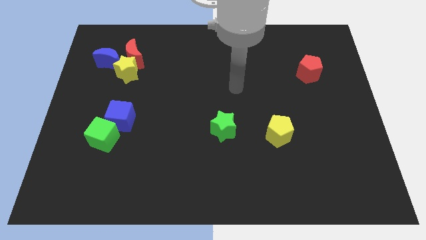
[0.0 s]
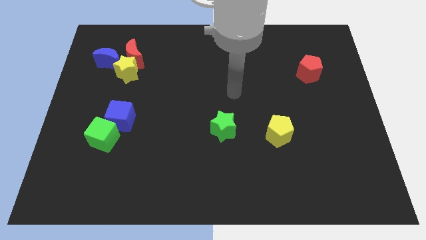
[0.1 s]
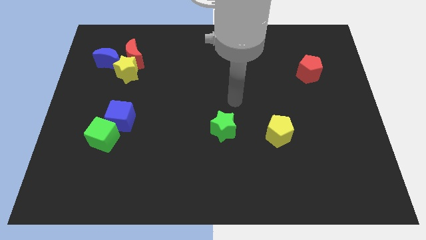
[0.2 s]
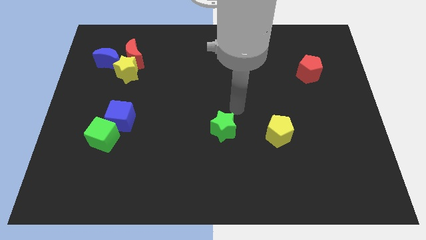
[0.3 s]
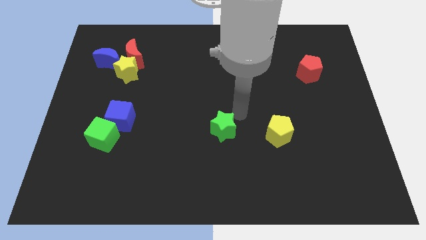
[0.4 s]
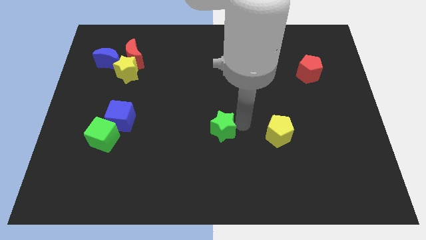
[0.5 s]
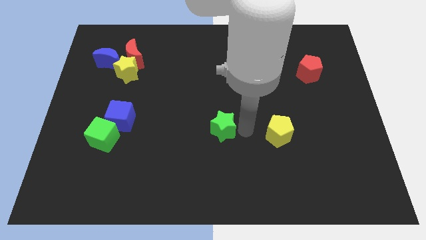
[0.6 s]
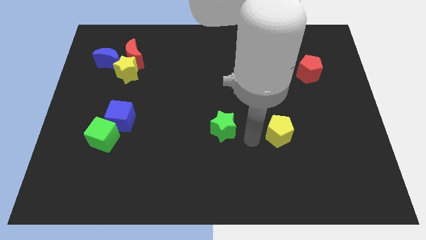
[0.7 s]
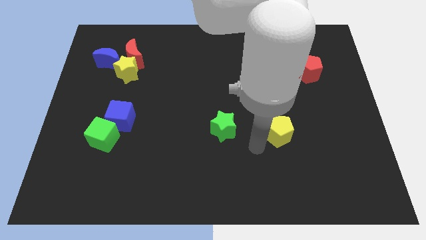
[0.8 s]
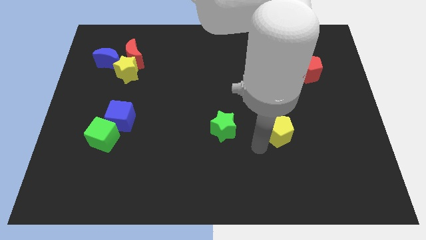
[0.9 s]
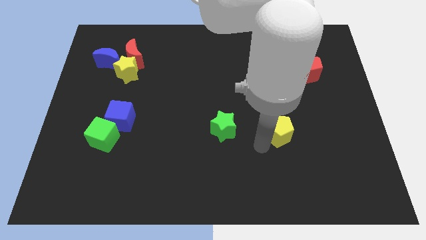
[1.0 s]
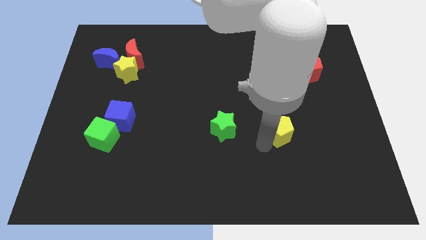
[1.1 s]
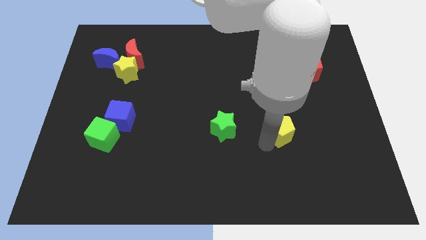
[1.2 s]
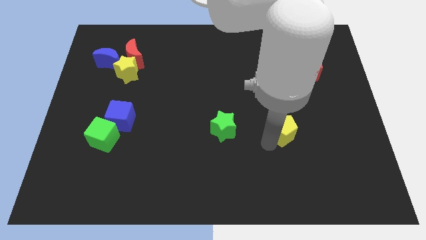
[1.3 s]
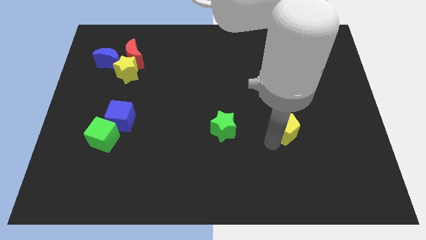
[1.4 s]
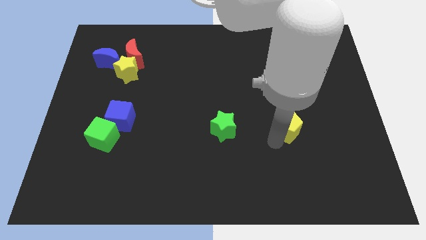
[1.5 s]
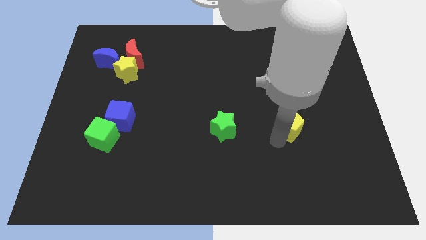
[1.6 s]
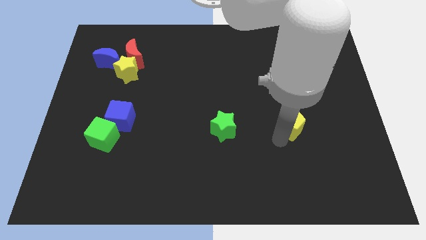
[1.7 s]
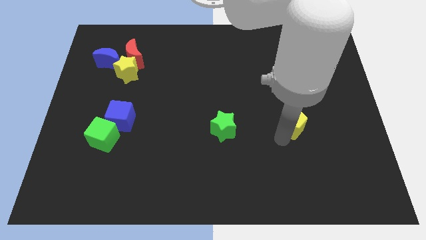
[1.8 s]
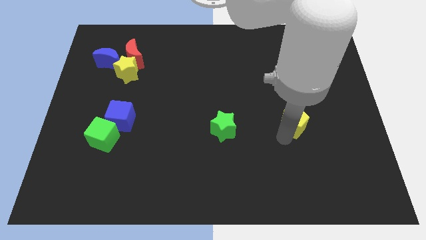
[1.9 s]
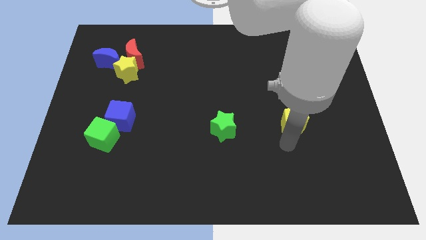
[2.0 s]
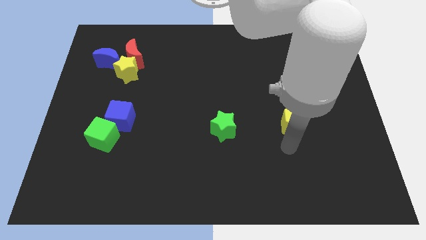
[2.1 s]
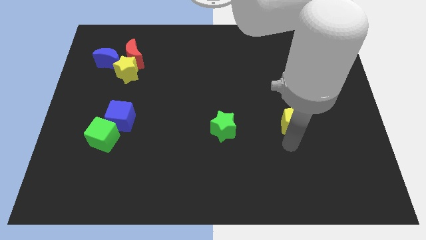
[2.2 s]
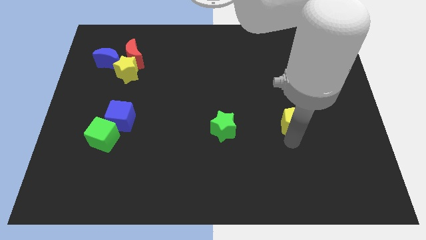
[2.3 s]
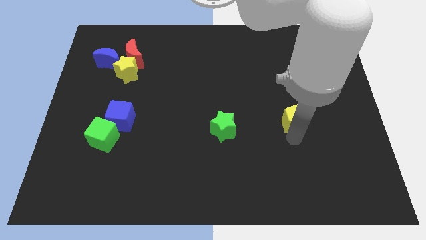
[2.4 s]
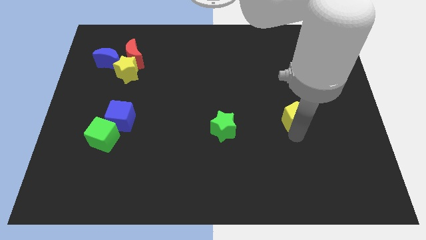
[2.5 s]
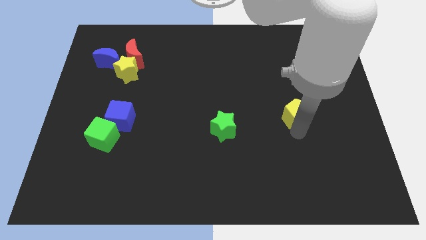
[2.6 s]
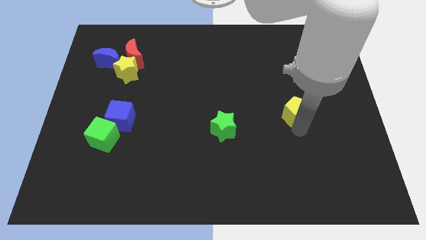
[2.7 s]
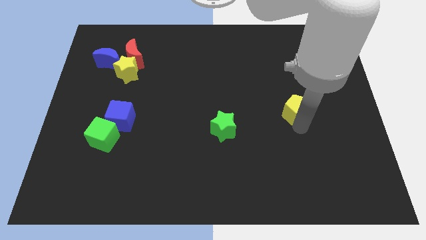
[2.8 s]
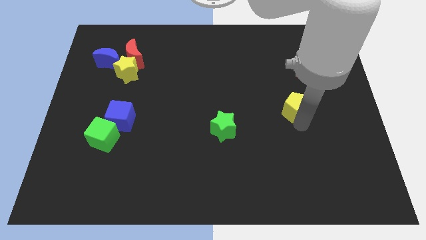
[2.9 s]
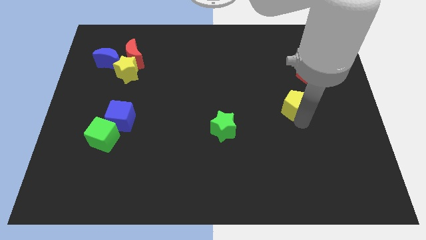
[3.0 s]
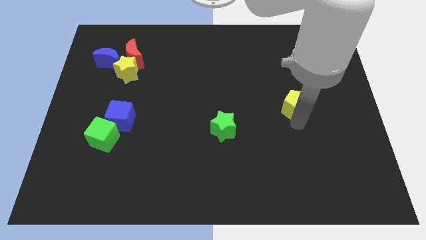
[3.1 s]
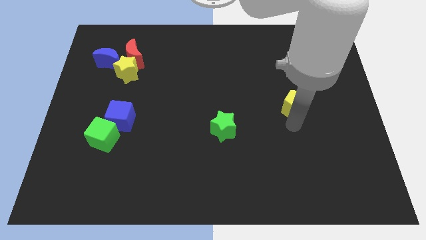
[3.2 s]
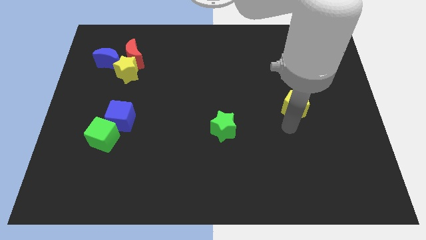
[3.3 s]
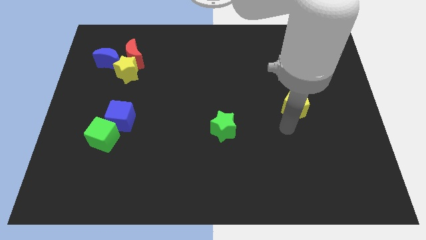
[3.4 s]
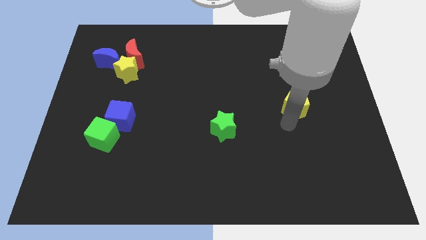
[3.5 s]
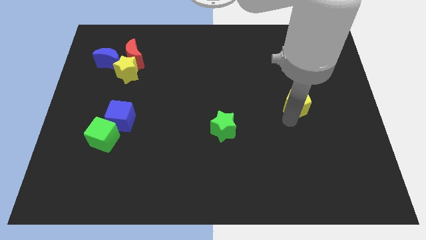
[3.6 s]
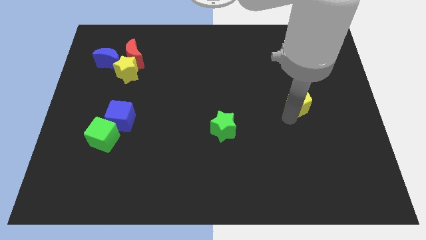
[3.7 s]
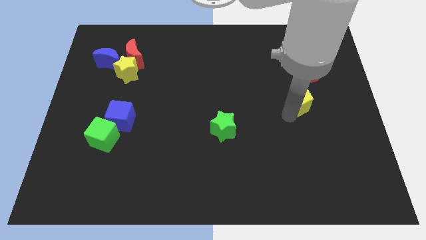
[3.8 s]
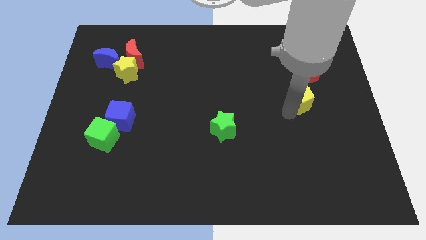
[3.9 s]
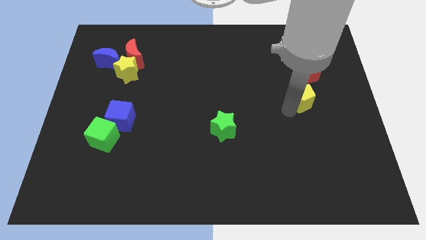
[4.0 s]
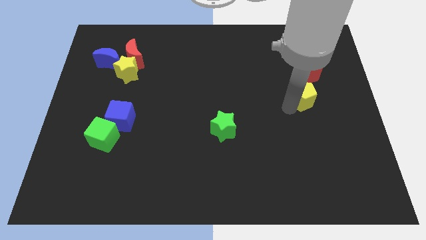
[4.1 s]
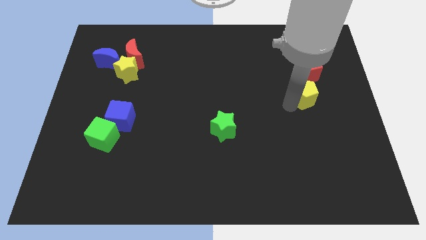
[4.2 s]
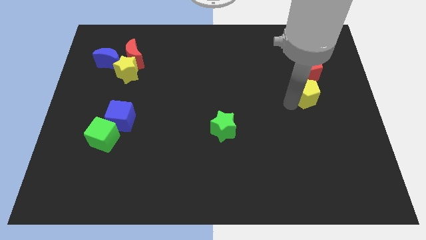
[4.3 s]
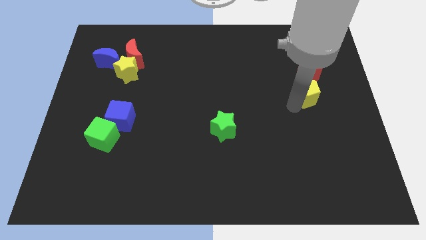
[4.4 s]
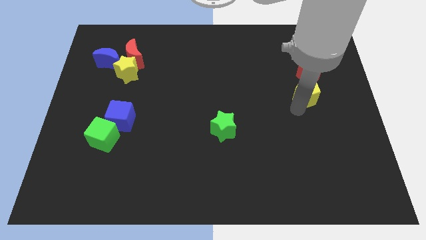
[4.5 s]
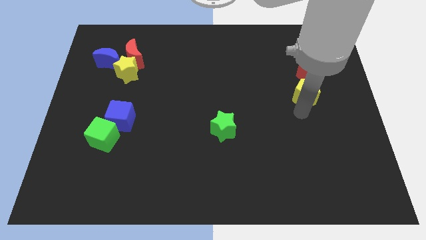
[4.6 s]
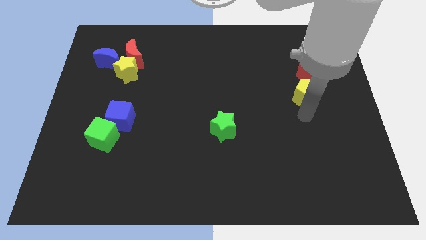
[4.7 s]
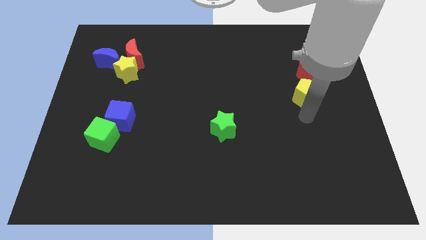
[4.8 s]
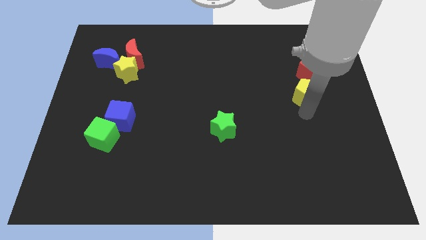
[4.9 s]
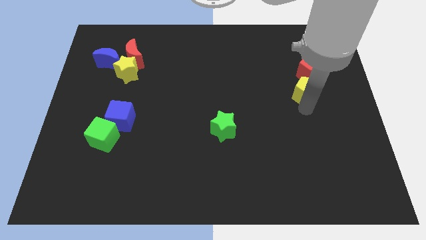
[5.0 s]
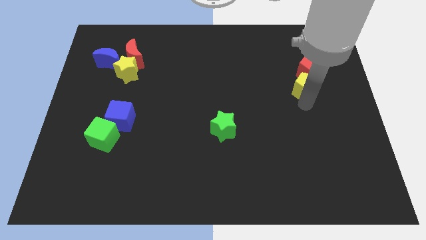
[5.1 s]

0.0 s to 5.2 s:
put the yellow pentagon towards the red pentagon

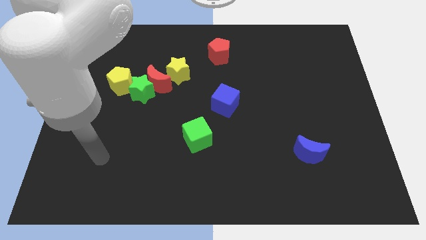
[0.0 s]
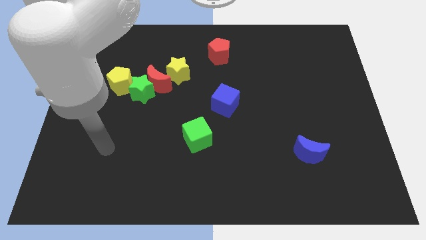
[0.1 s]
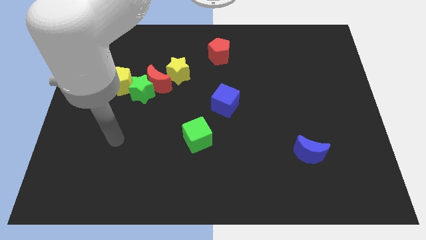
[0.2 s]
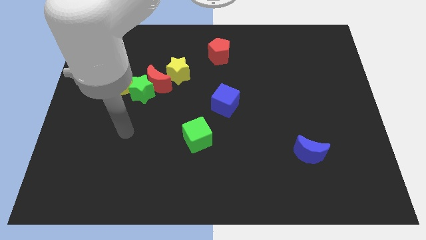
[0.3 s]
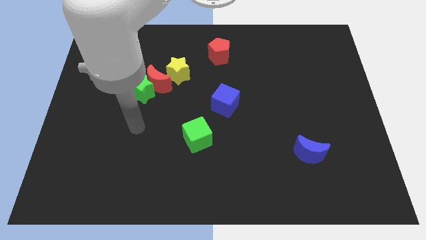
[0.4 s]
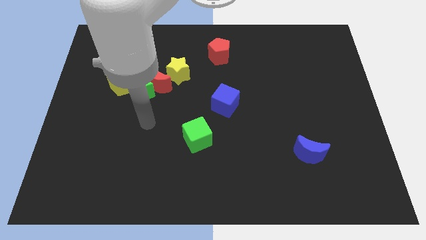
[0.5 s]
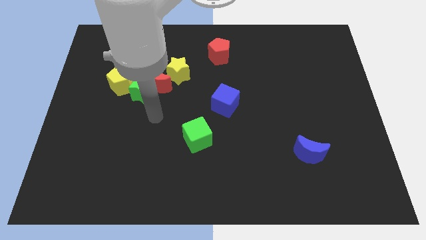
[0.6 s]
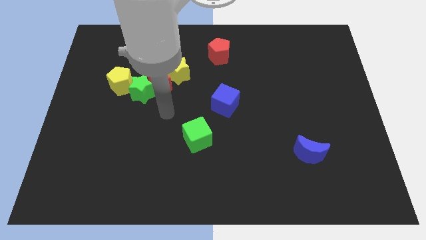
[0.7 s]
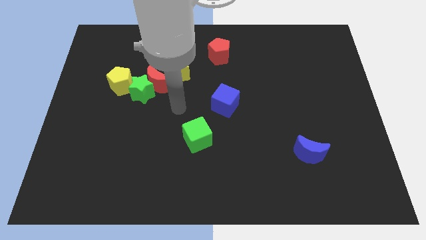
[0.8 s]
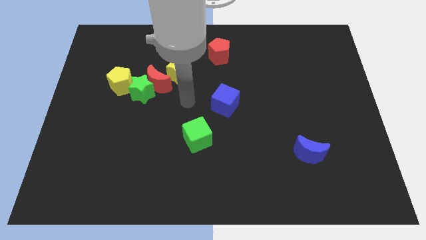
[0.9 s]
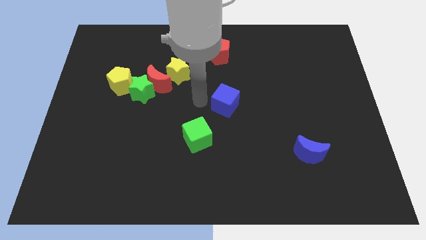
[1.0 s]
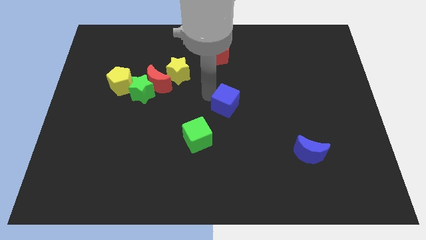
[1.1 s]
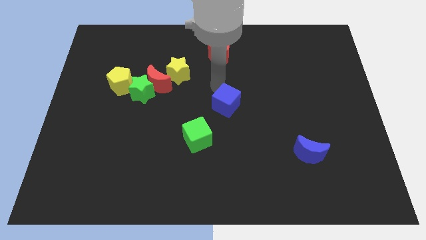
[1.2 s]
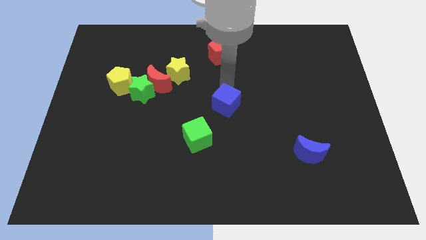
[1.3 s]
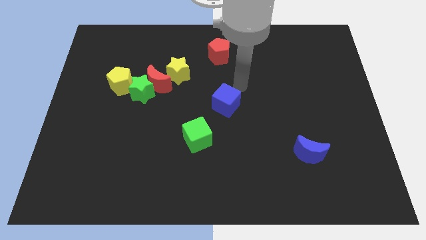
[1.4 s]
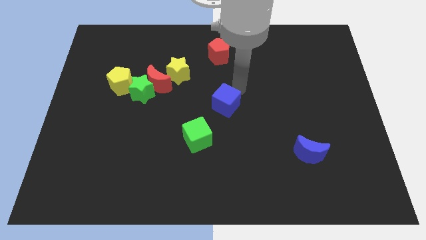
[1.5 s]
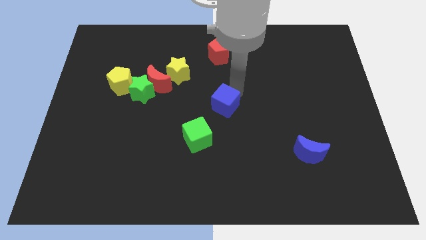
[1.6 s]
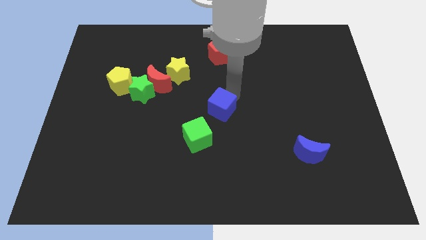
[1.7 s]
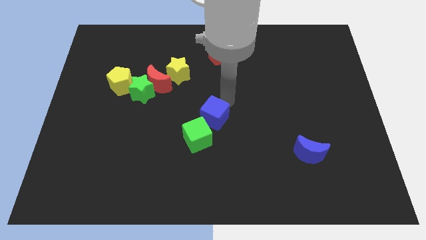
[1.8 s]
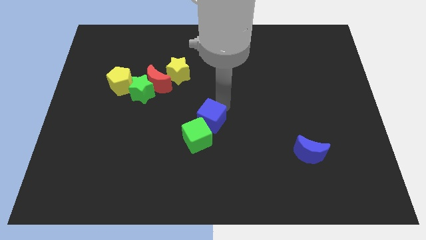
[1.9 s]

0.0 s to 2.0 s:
slide the blue cube next to the green cube
